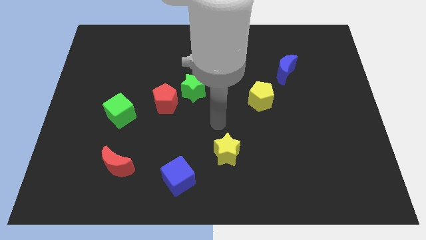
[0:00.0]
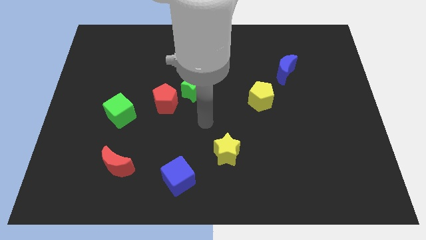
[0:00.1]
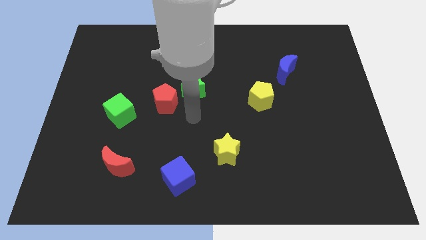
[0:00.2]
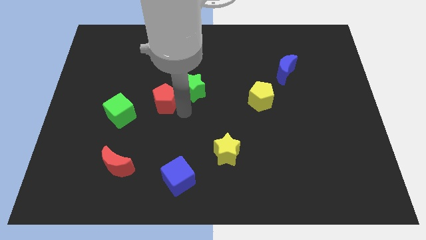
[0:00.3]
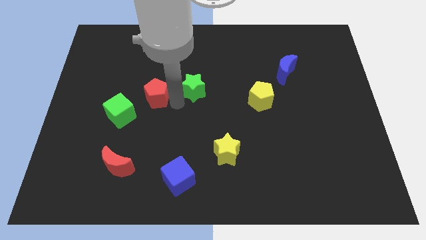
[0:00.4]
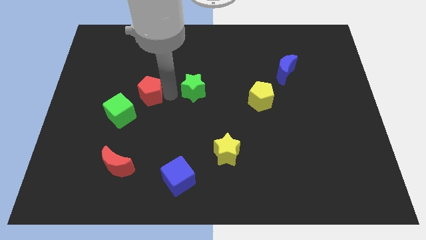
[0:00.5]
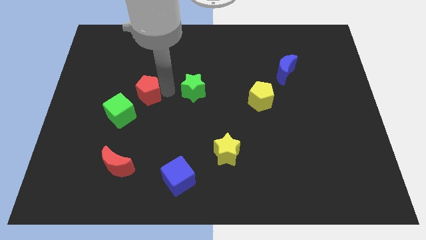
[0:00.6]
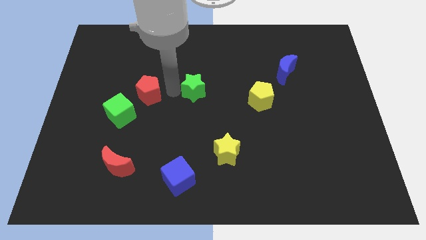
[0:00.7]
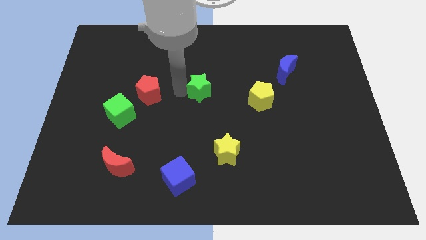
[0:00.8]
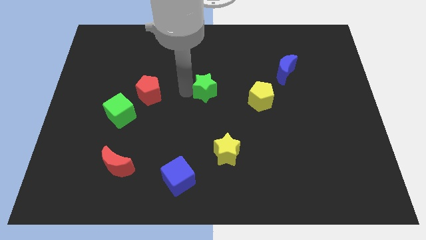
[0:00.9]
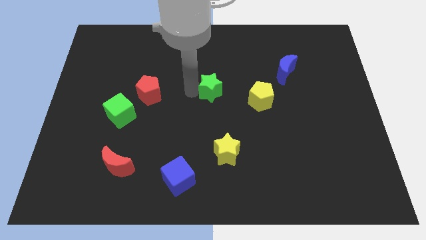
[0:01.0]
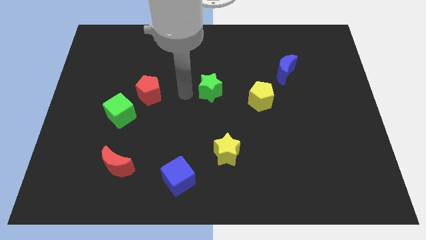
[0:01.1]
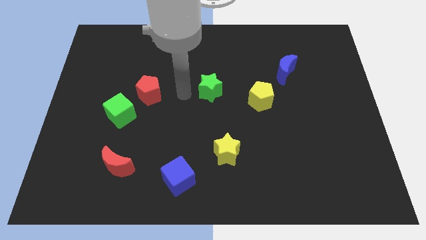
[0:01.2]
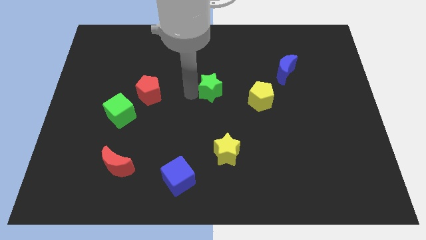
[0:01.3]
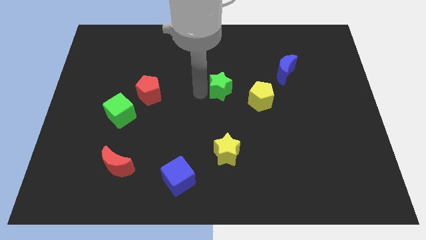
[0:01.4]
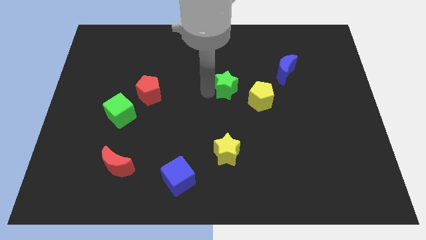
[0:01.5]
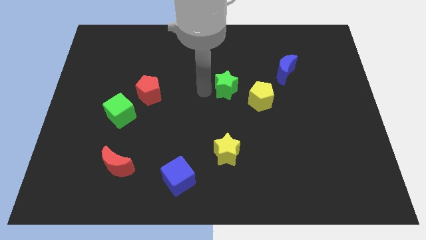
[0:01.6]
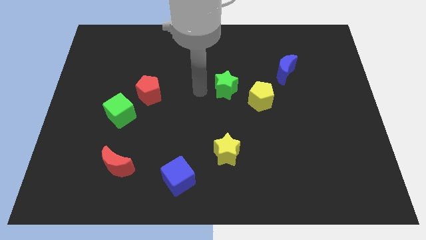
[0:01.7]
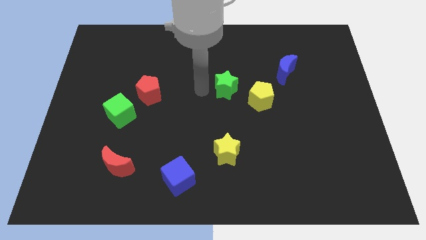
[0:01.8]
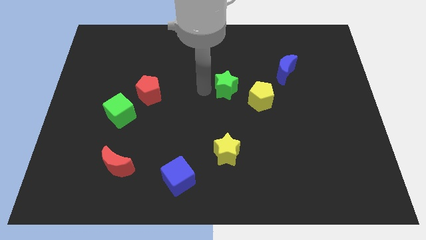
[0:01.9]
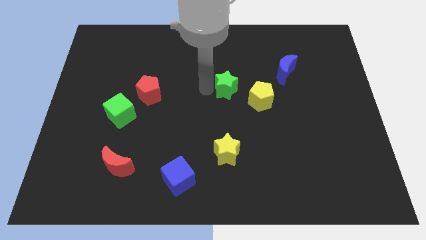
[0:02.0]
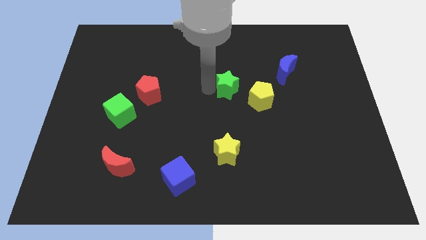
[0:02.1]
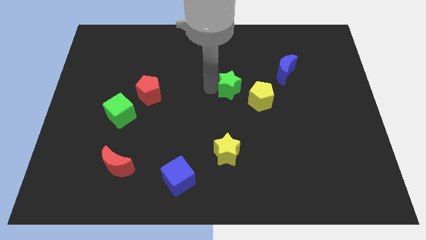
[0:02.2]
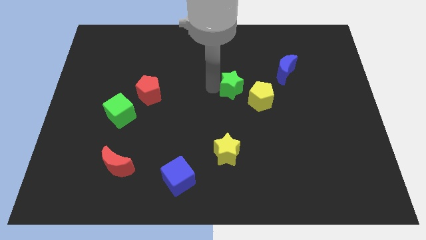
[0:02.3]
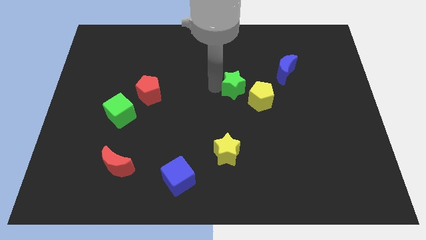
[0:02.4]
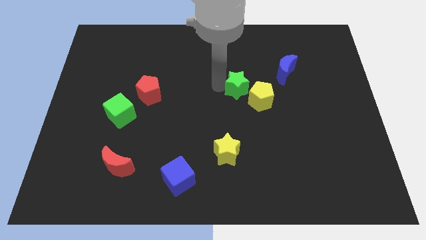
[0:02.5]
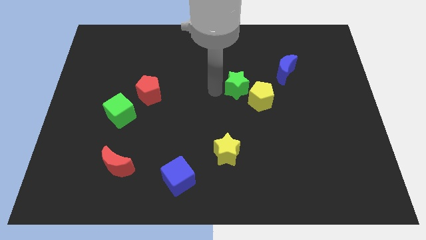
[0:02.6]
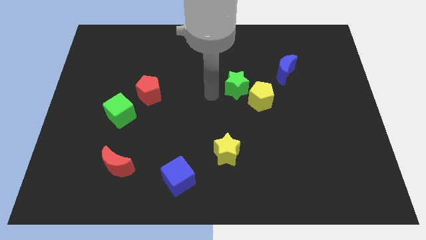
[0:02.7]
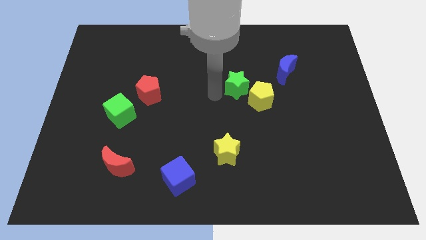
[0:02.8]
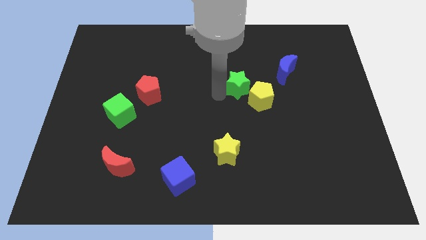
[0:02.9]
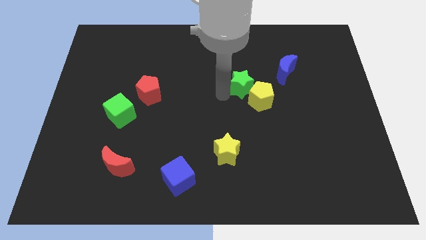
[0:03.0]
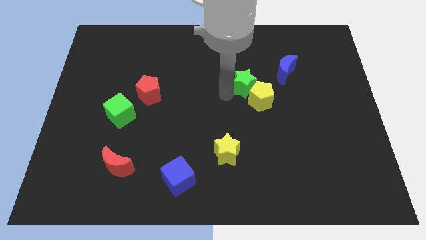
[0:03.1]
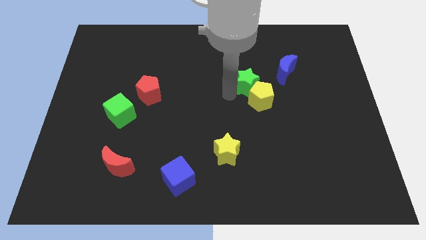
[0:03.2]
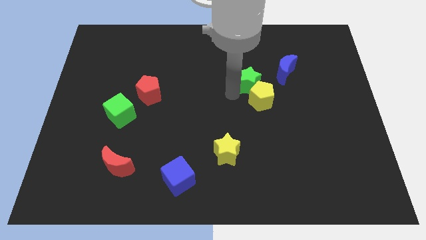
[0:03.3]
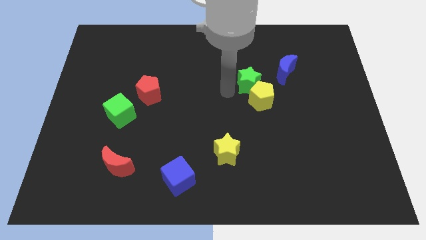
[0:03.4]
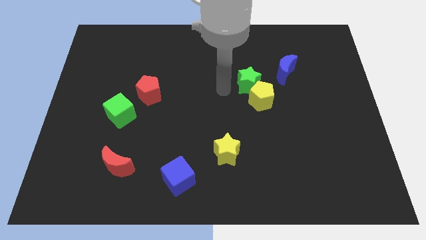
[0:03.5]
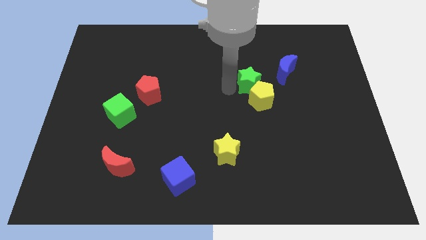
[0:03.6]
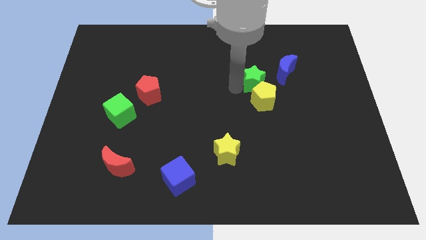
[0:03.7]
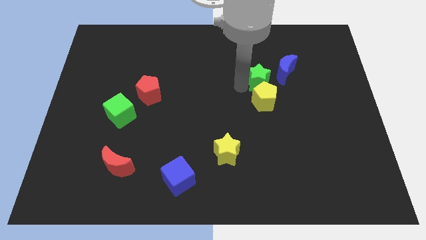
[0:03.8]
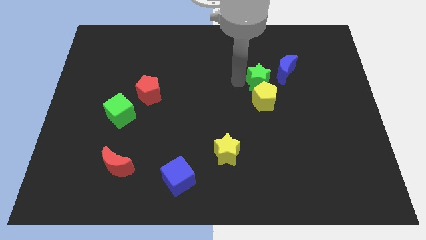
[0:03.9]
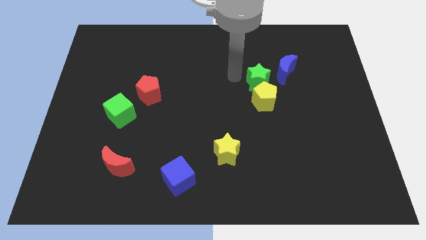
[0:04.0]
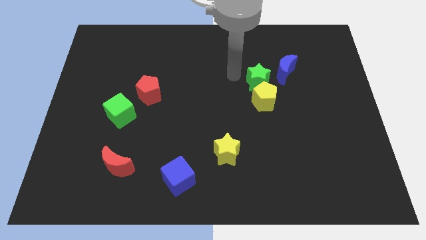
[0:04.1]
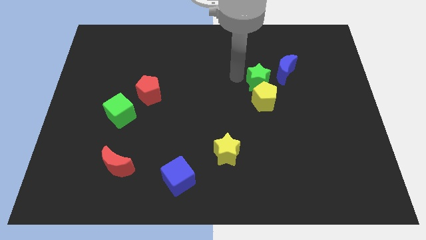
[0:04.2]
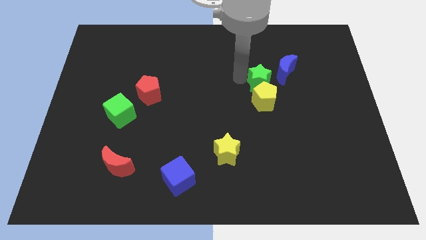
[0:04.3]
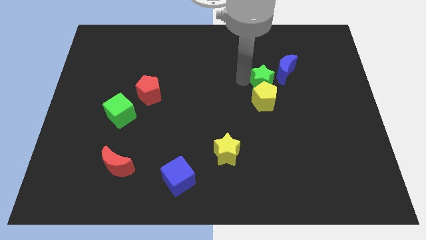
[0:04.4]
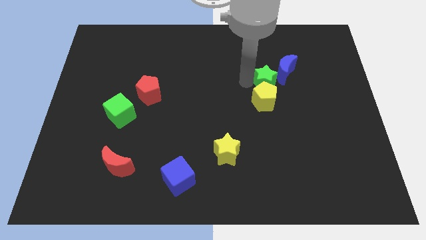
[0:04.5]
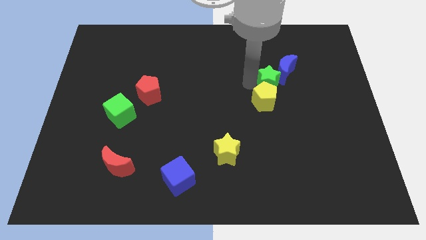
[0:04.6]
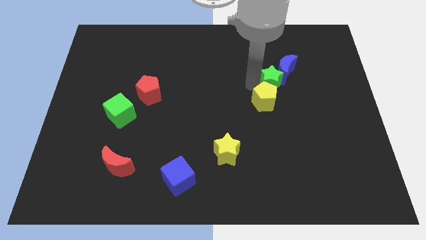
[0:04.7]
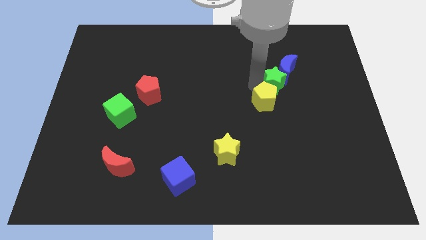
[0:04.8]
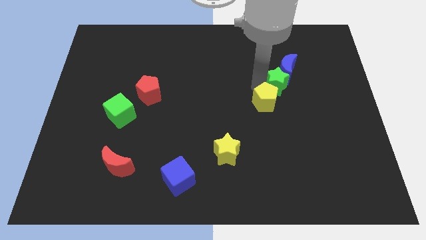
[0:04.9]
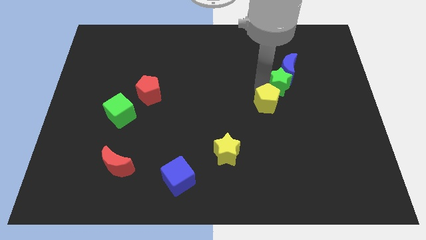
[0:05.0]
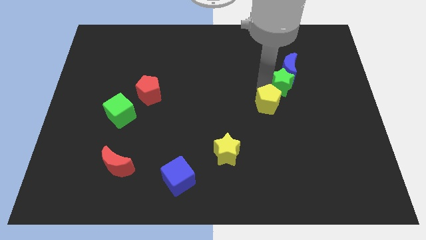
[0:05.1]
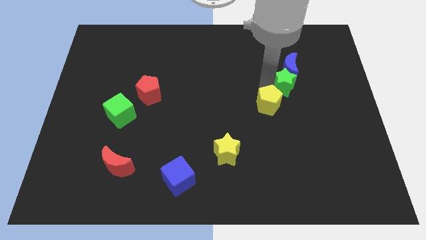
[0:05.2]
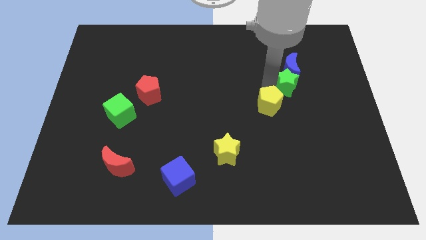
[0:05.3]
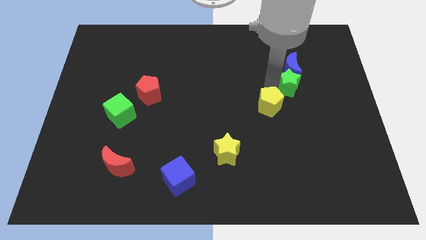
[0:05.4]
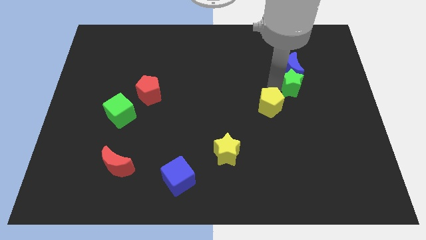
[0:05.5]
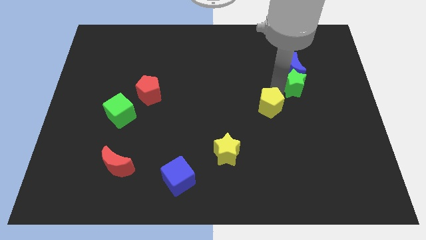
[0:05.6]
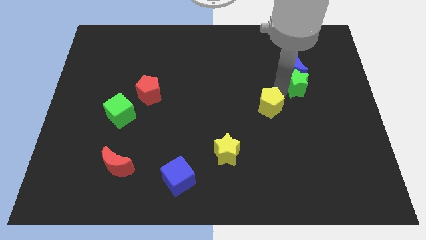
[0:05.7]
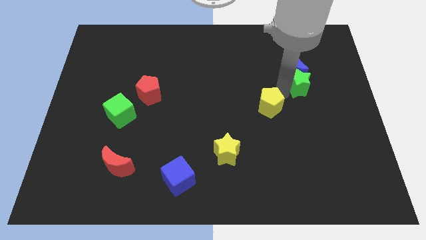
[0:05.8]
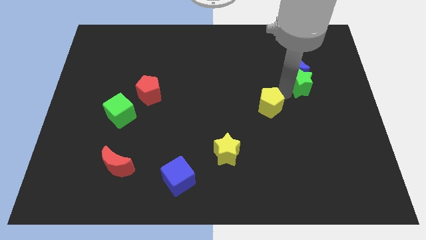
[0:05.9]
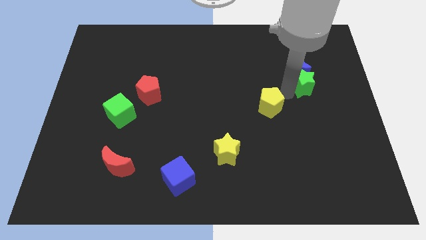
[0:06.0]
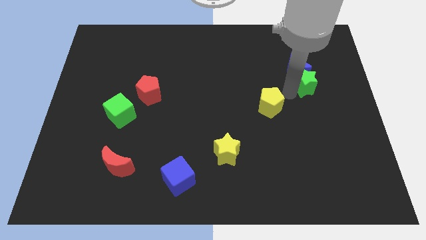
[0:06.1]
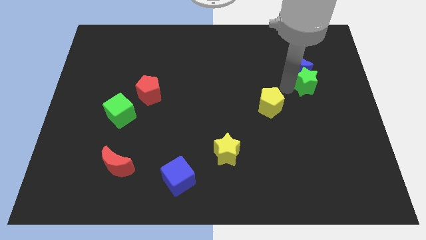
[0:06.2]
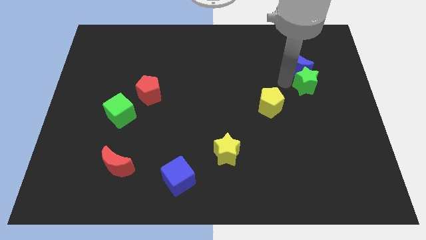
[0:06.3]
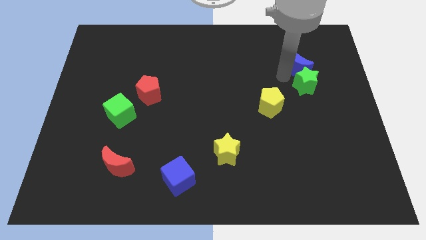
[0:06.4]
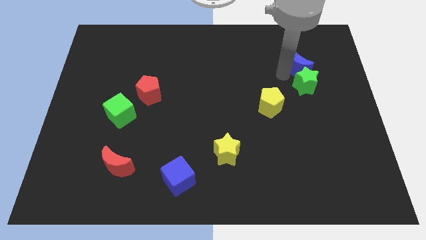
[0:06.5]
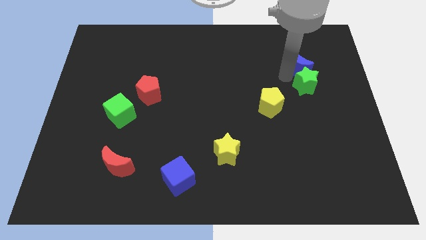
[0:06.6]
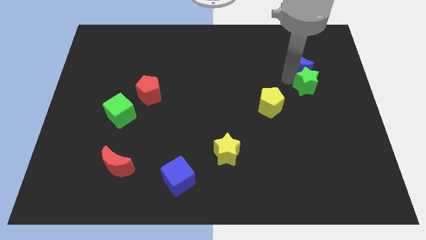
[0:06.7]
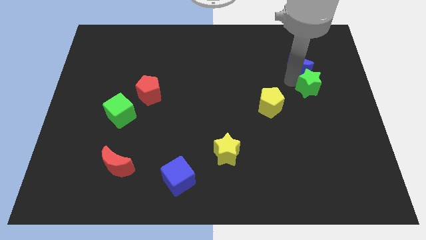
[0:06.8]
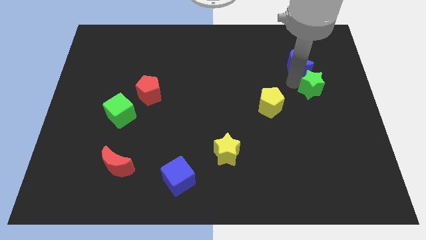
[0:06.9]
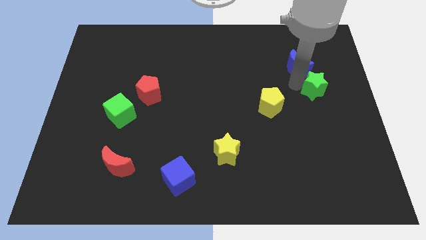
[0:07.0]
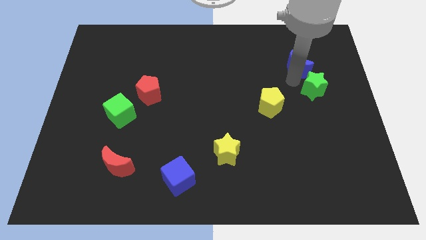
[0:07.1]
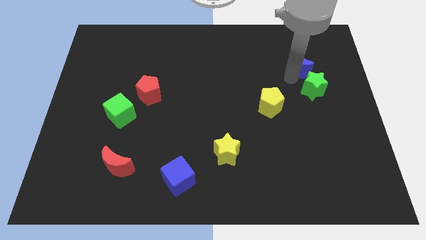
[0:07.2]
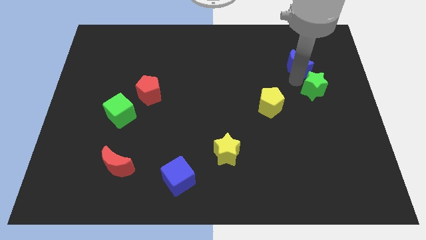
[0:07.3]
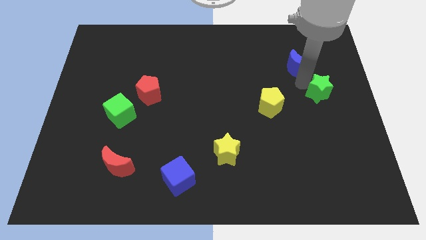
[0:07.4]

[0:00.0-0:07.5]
move the green star to the right side of the board
